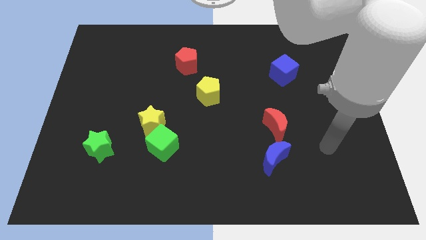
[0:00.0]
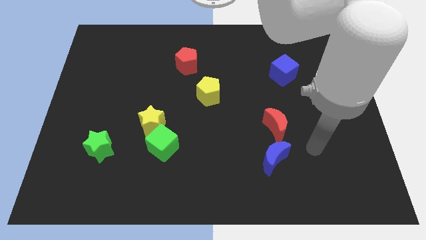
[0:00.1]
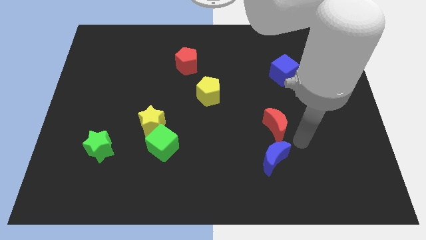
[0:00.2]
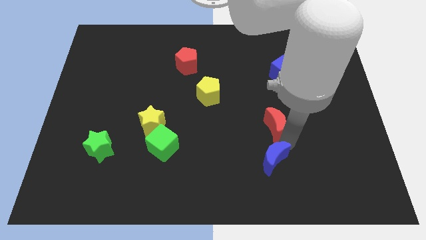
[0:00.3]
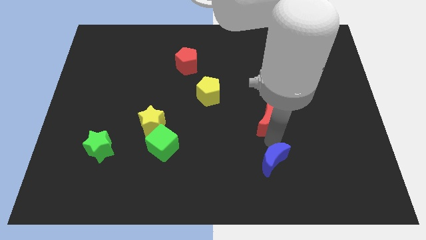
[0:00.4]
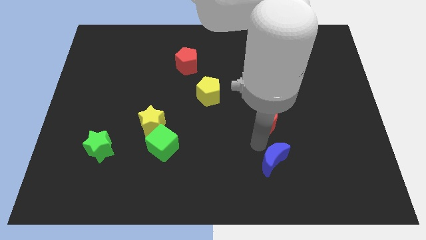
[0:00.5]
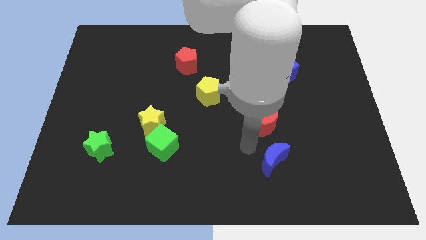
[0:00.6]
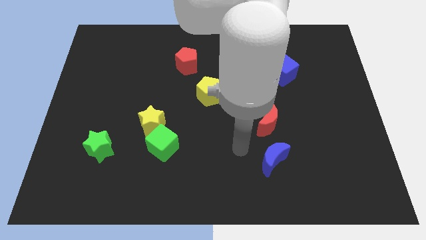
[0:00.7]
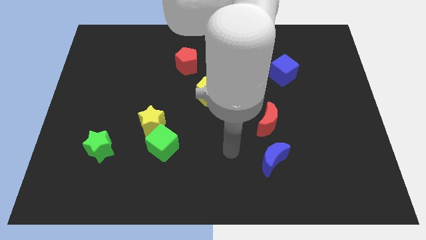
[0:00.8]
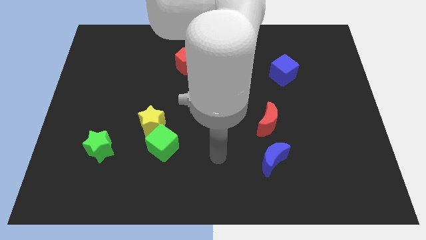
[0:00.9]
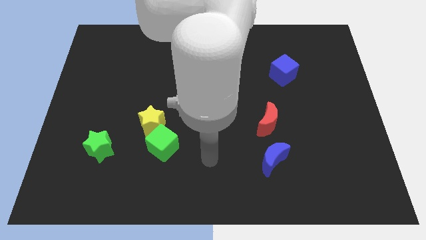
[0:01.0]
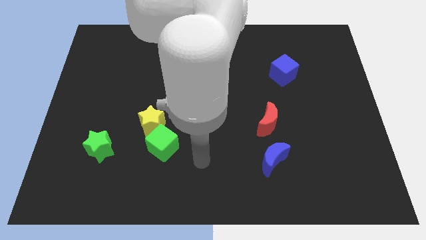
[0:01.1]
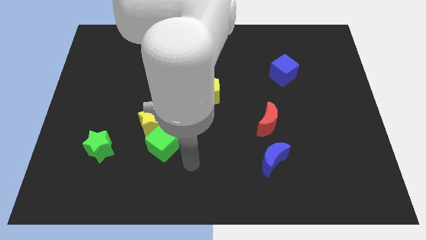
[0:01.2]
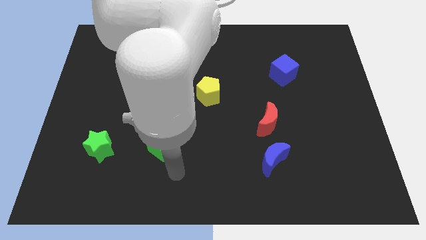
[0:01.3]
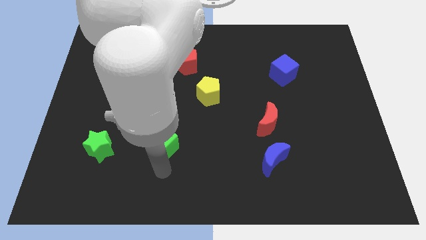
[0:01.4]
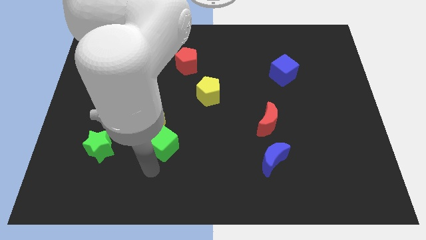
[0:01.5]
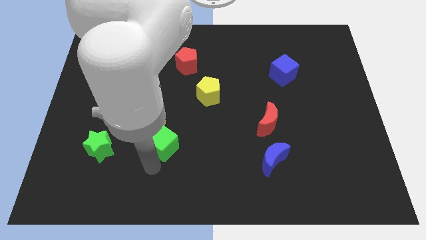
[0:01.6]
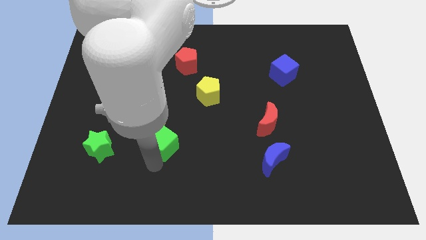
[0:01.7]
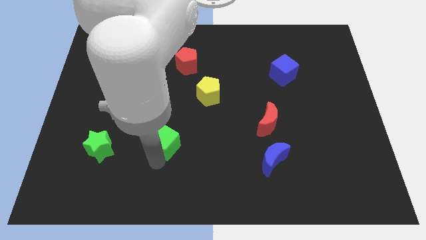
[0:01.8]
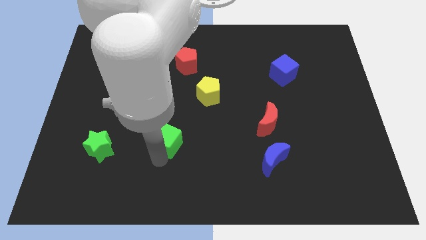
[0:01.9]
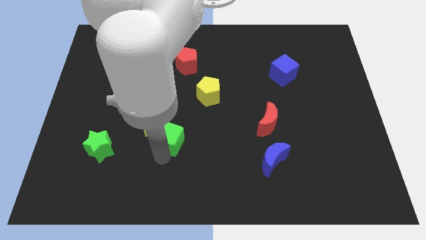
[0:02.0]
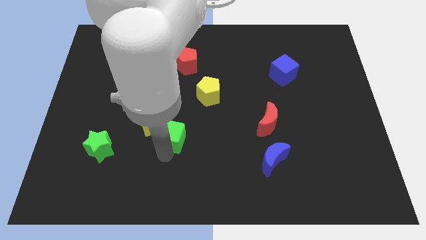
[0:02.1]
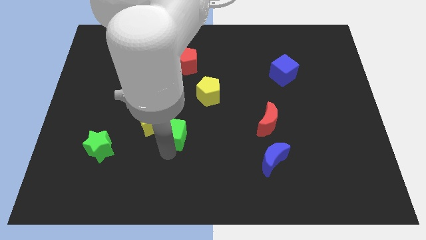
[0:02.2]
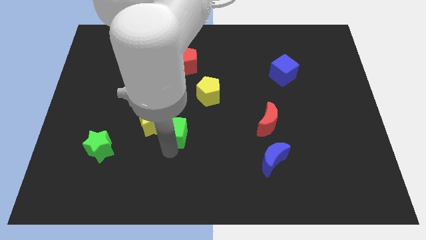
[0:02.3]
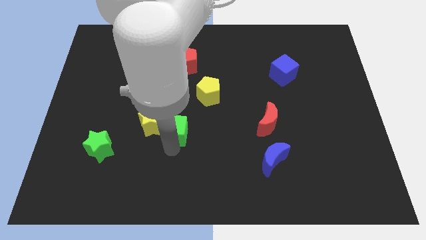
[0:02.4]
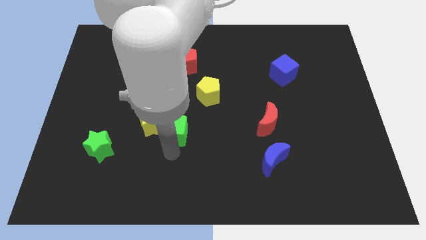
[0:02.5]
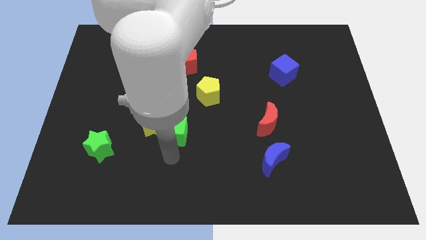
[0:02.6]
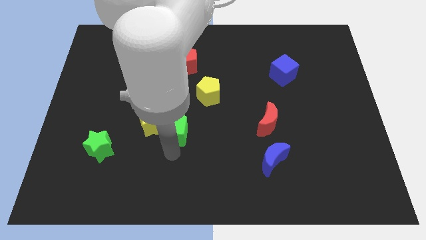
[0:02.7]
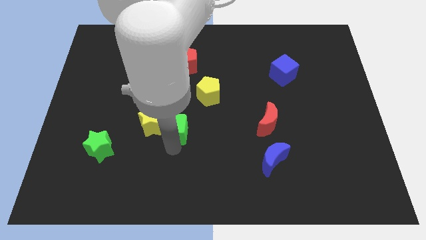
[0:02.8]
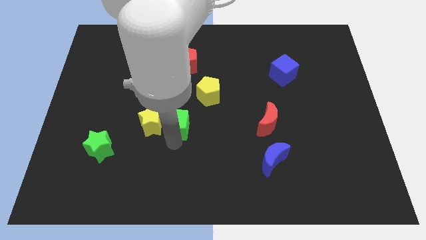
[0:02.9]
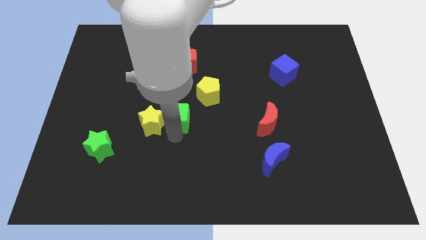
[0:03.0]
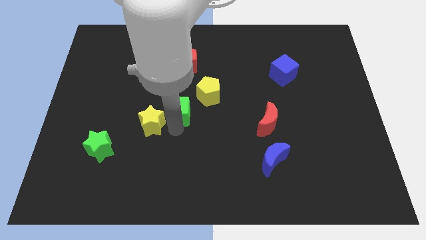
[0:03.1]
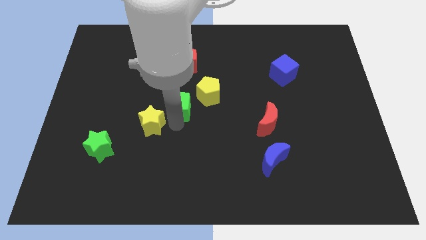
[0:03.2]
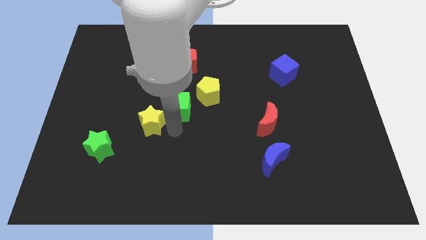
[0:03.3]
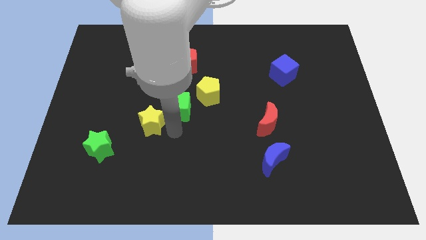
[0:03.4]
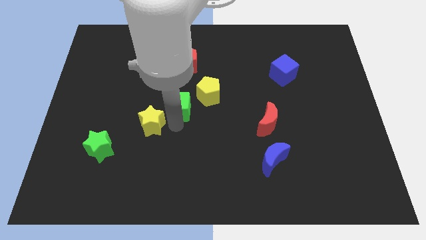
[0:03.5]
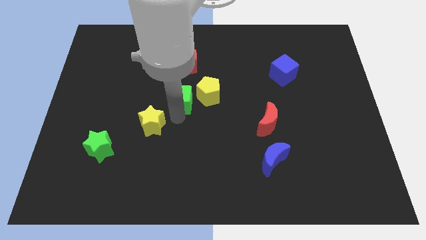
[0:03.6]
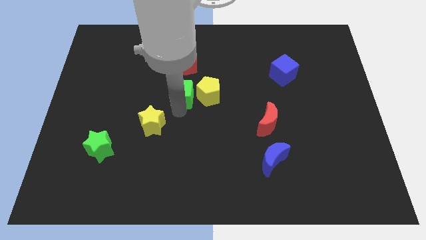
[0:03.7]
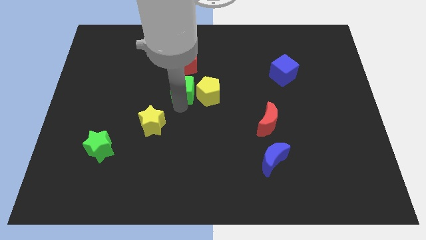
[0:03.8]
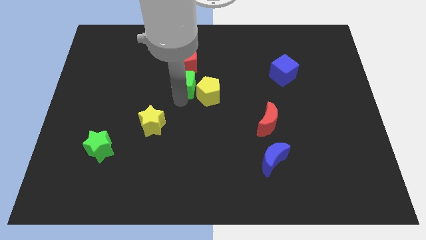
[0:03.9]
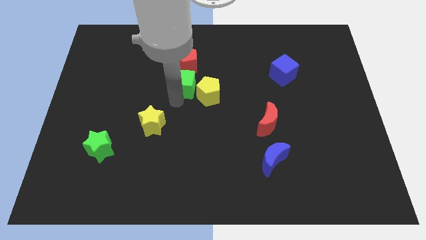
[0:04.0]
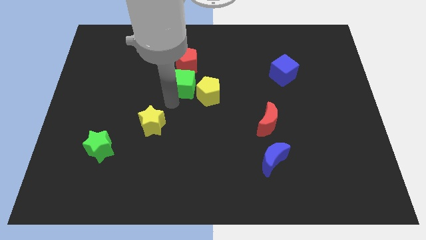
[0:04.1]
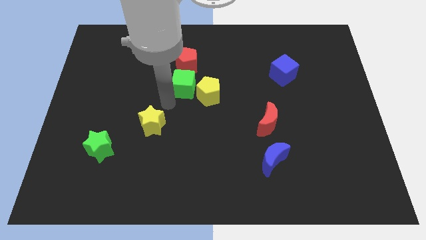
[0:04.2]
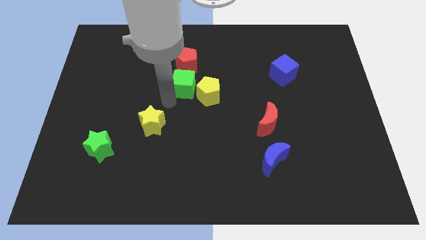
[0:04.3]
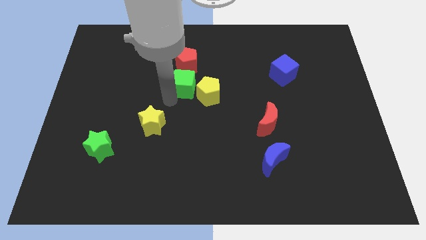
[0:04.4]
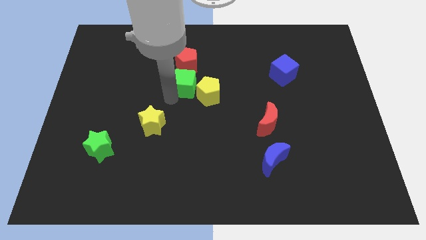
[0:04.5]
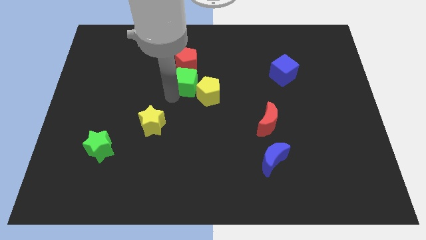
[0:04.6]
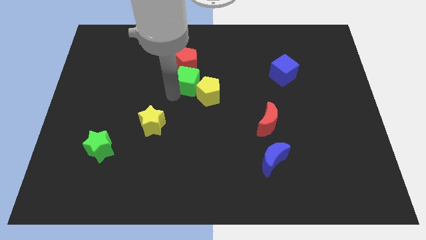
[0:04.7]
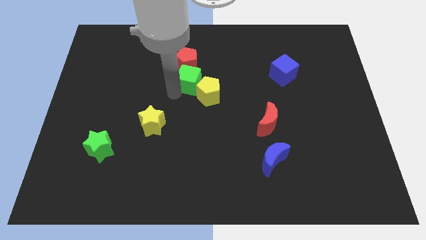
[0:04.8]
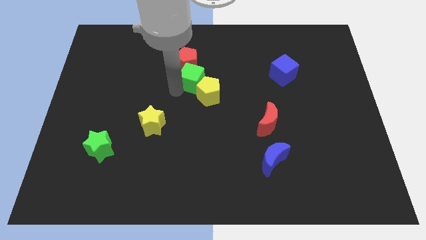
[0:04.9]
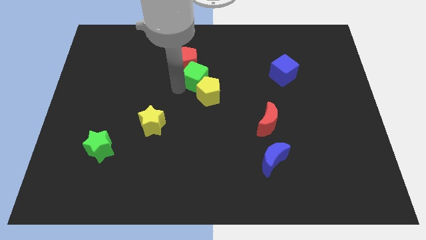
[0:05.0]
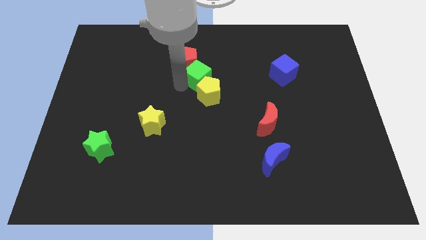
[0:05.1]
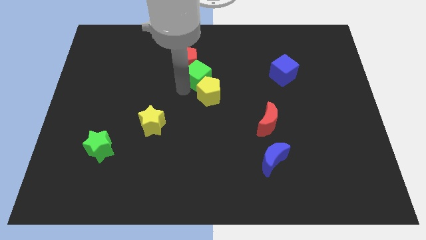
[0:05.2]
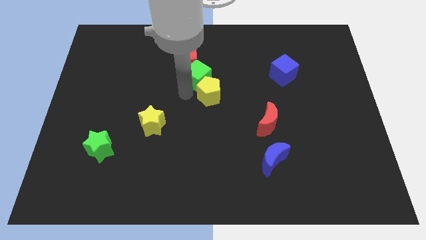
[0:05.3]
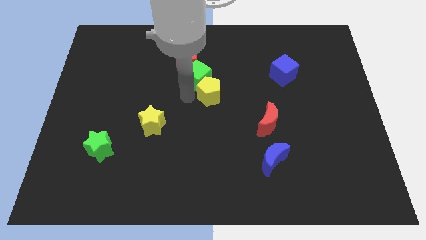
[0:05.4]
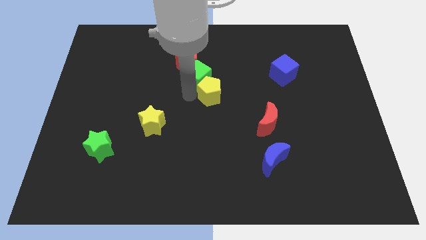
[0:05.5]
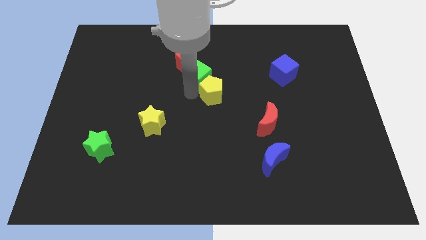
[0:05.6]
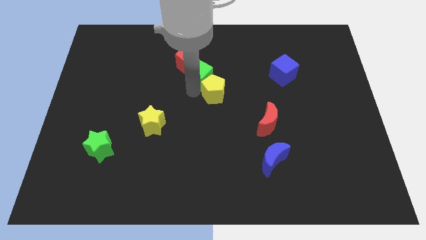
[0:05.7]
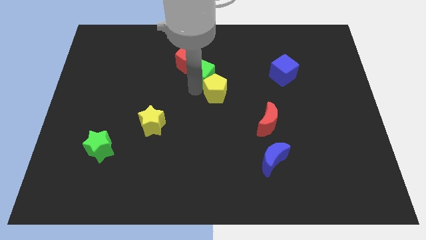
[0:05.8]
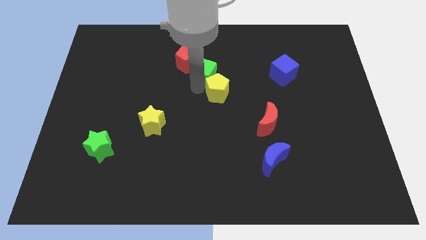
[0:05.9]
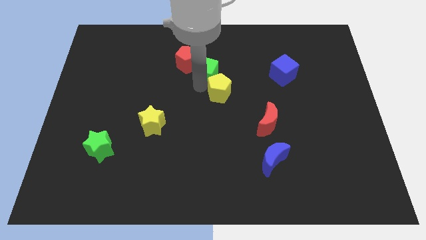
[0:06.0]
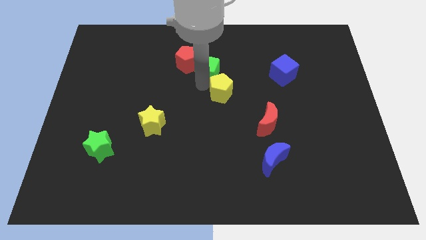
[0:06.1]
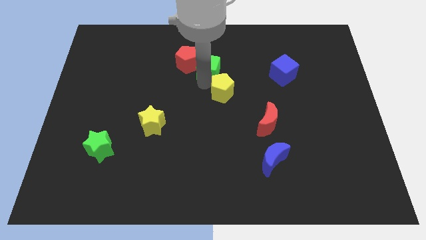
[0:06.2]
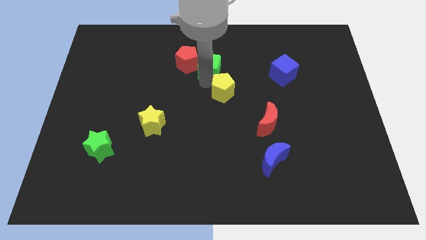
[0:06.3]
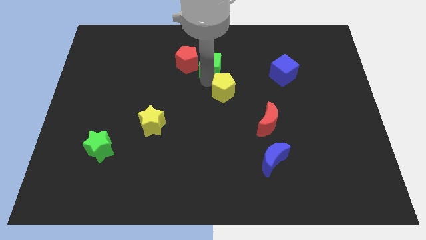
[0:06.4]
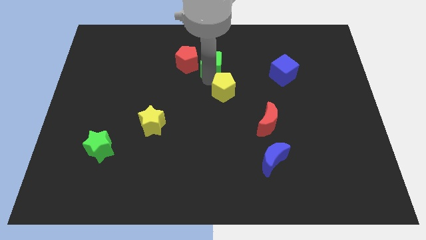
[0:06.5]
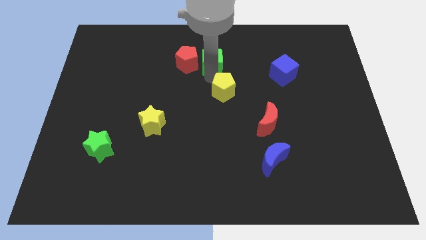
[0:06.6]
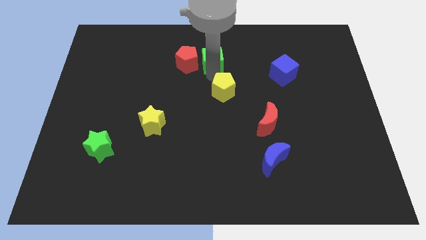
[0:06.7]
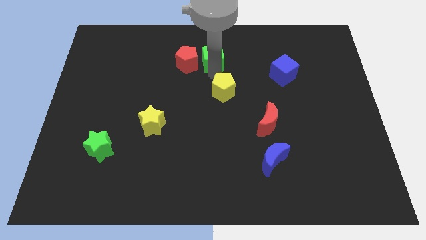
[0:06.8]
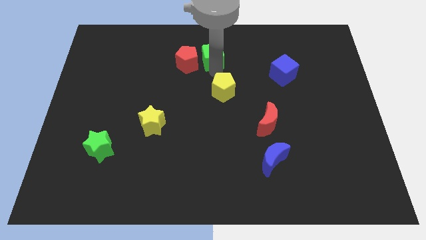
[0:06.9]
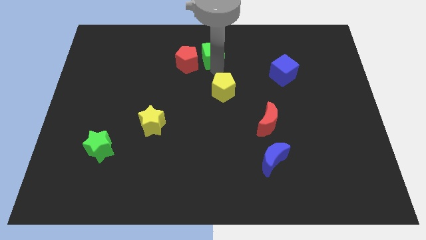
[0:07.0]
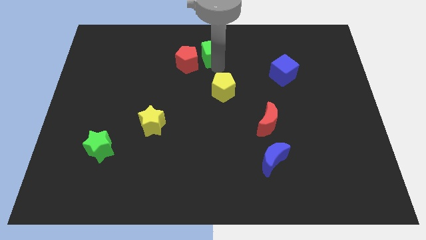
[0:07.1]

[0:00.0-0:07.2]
move the green cube to the top
